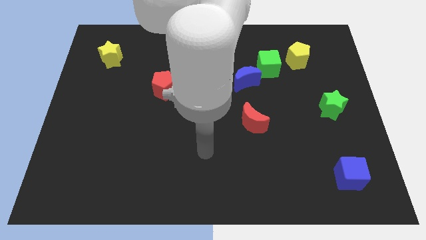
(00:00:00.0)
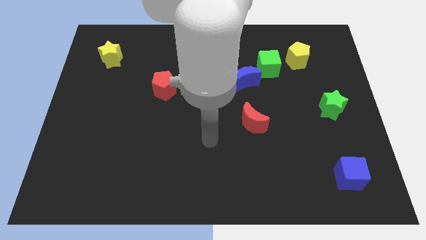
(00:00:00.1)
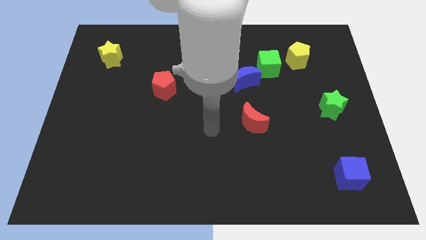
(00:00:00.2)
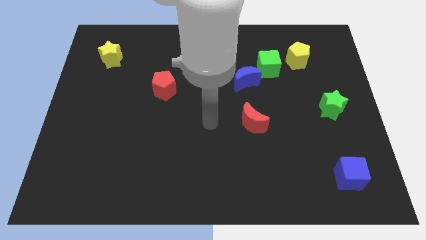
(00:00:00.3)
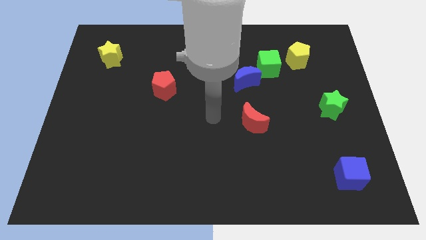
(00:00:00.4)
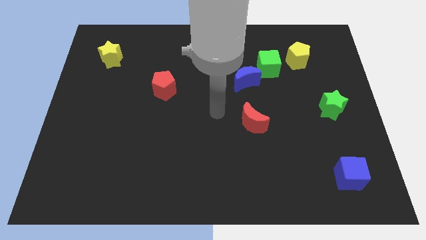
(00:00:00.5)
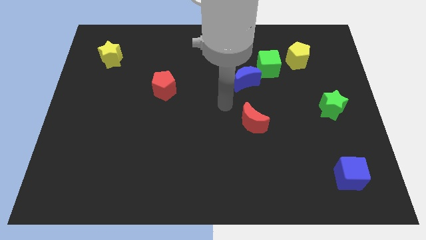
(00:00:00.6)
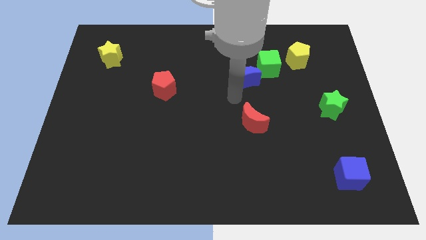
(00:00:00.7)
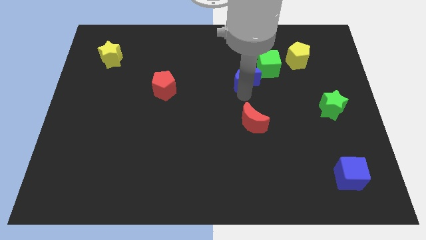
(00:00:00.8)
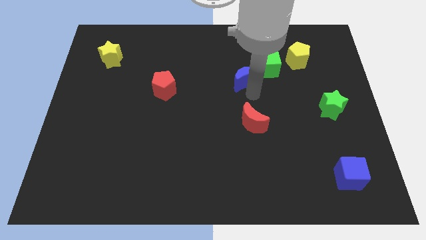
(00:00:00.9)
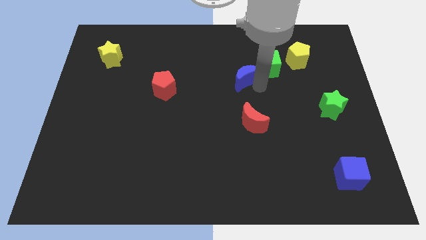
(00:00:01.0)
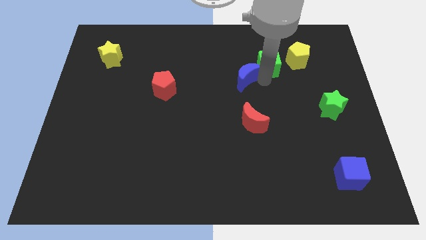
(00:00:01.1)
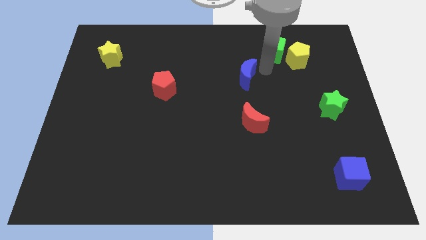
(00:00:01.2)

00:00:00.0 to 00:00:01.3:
move the blue moon away from the green cube

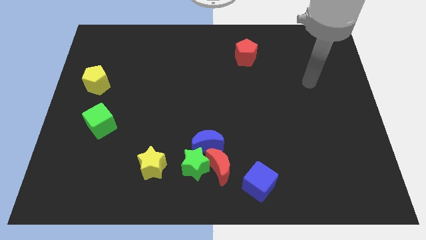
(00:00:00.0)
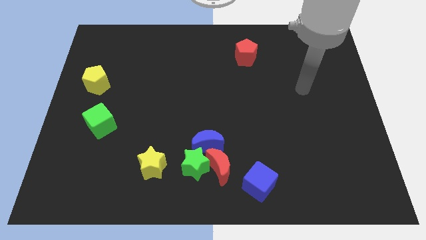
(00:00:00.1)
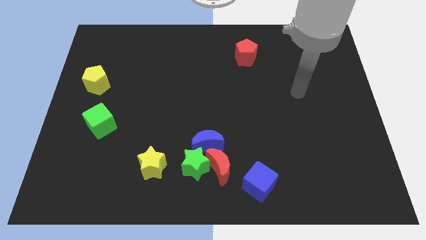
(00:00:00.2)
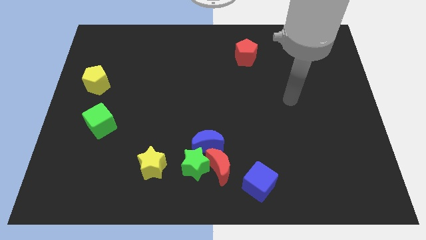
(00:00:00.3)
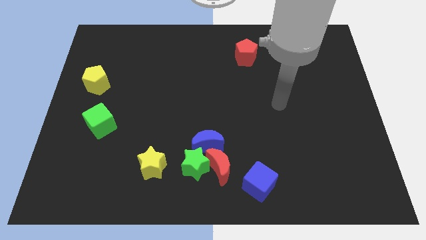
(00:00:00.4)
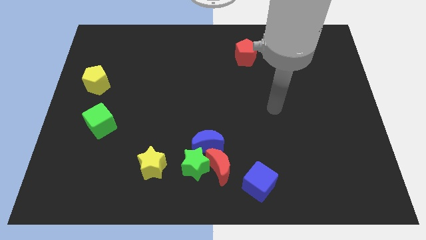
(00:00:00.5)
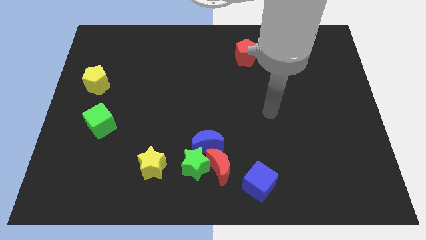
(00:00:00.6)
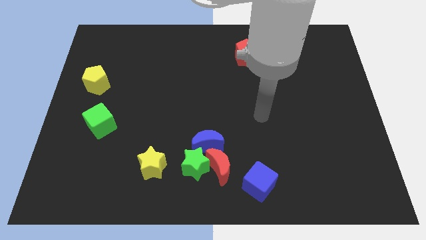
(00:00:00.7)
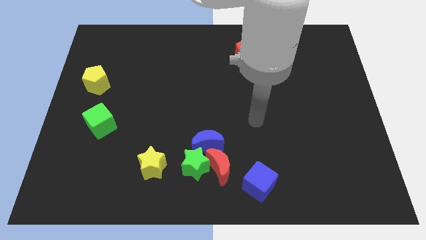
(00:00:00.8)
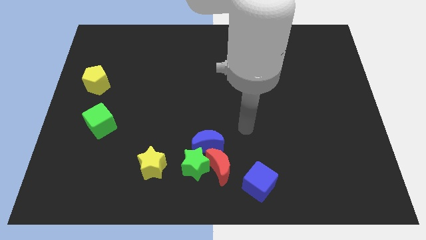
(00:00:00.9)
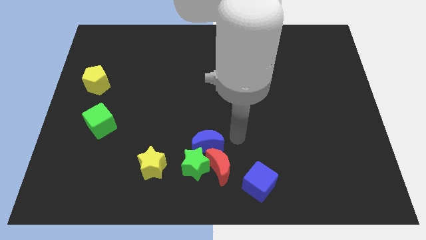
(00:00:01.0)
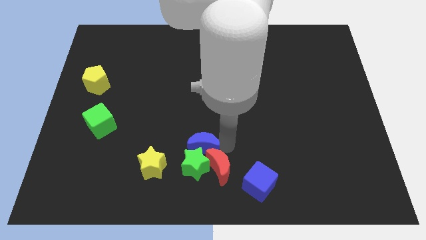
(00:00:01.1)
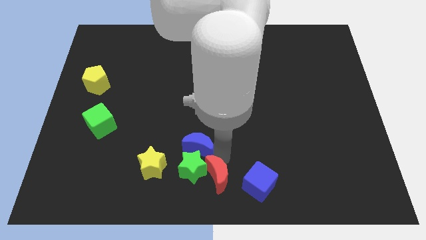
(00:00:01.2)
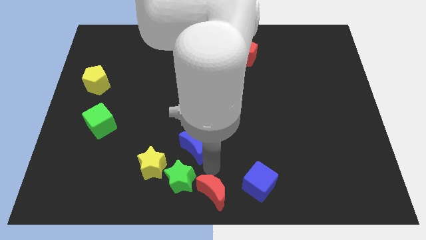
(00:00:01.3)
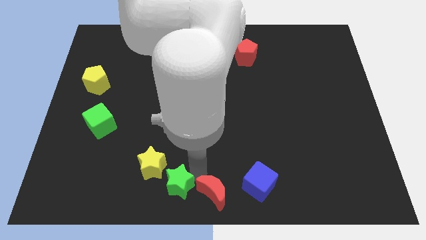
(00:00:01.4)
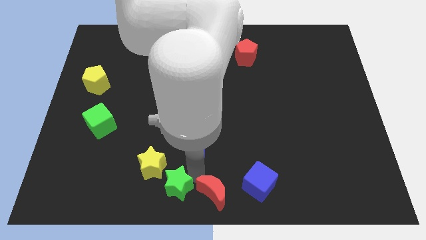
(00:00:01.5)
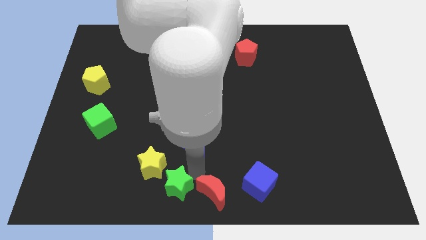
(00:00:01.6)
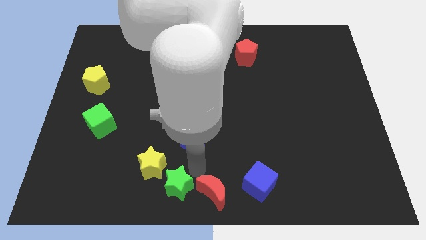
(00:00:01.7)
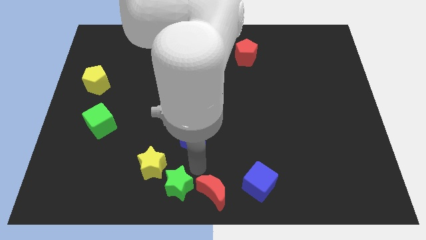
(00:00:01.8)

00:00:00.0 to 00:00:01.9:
separate the blue moon from the green star and red moon

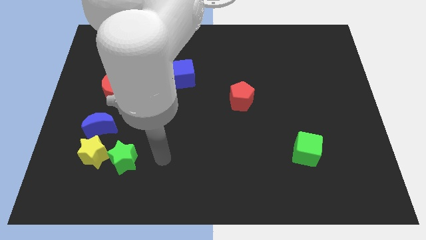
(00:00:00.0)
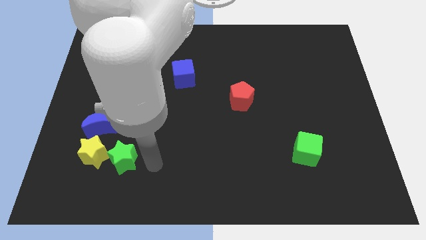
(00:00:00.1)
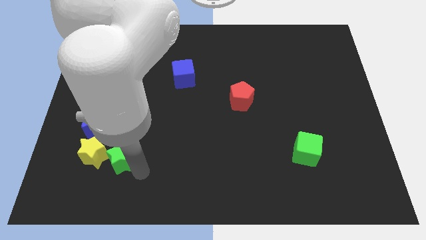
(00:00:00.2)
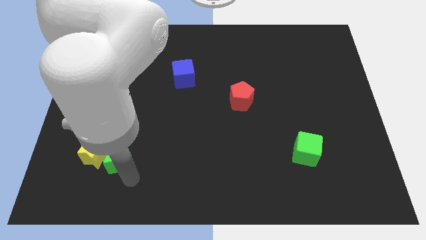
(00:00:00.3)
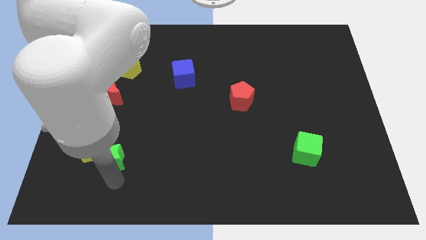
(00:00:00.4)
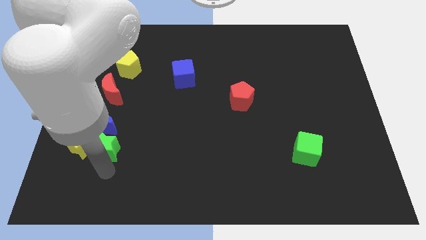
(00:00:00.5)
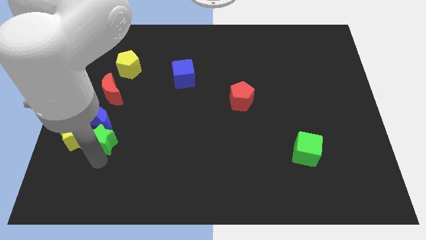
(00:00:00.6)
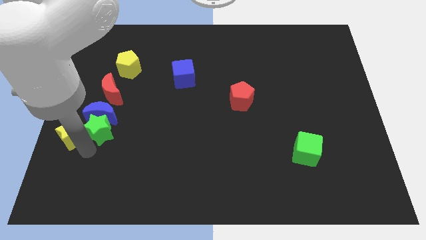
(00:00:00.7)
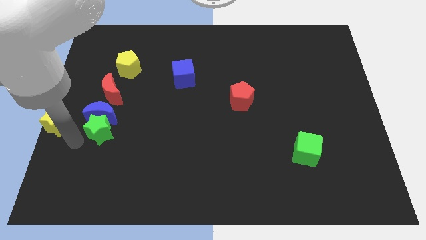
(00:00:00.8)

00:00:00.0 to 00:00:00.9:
pull the green star apart from the yellow star

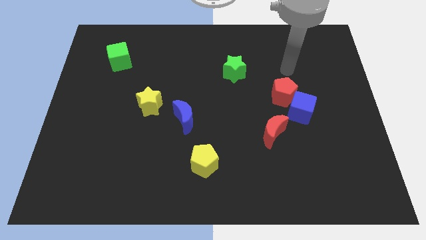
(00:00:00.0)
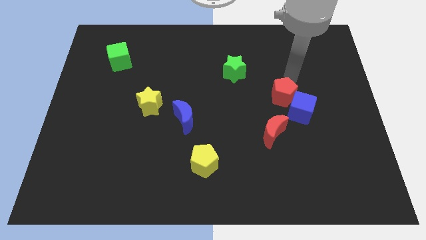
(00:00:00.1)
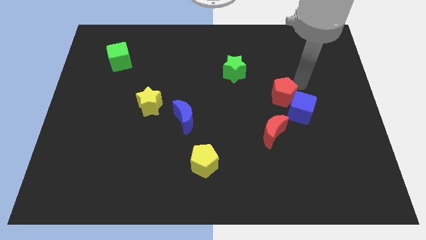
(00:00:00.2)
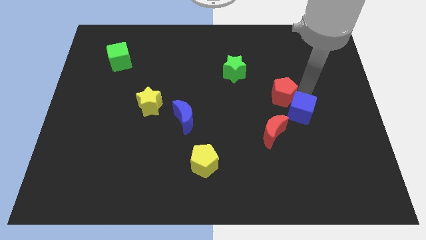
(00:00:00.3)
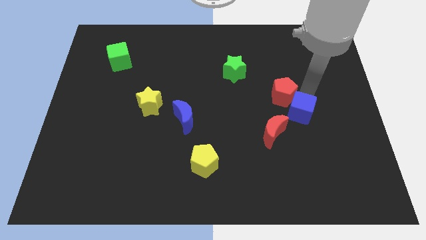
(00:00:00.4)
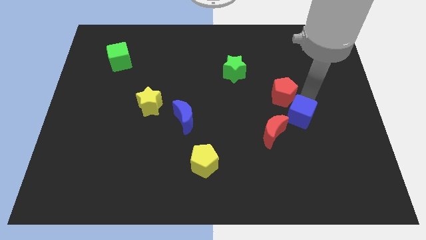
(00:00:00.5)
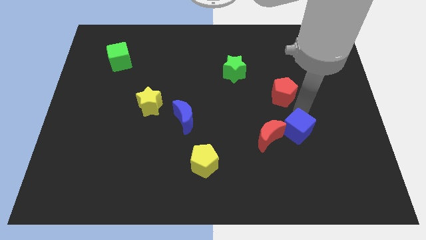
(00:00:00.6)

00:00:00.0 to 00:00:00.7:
separate the red pentagon from the blue cube

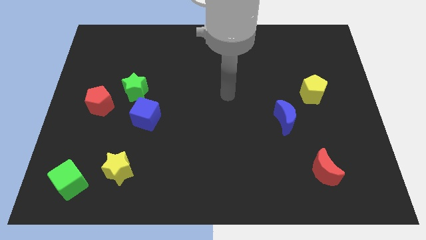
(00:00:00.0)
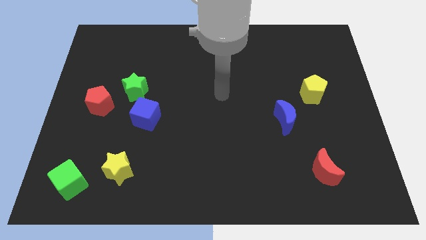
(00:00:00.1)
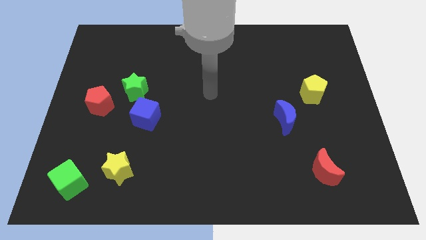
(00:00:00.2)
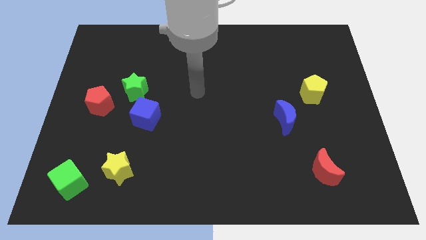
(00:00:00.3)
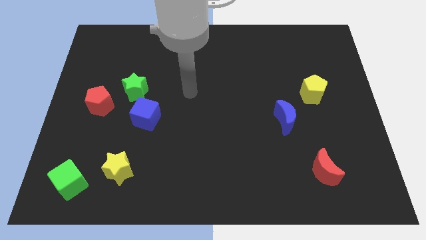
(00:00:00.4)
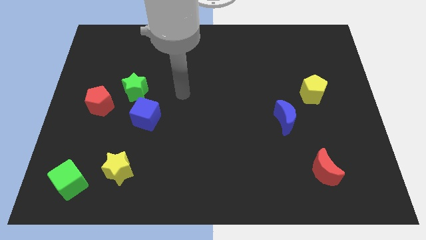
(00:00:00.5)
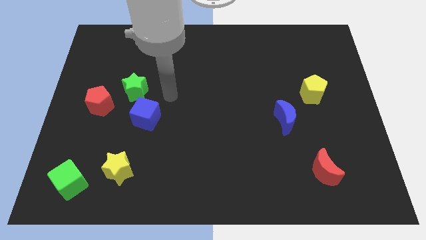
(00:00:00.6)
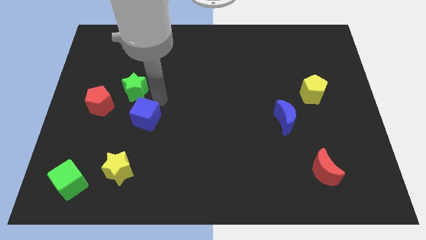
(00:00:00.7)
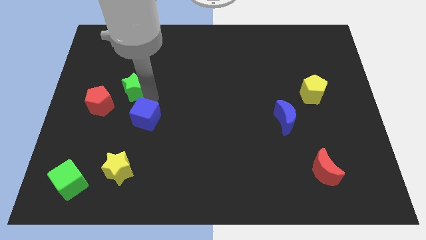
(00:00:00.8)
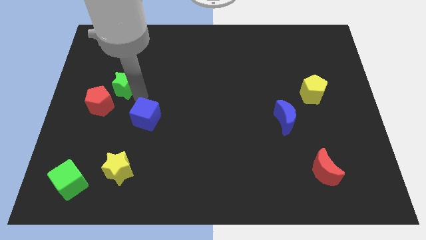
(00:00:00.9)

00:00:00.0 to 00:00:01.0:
separate the blue cube from the green star

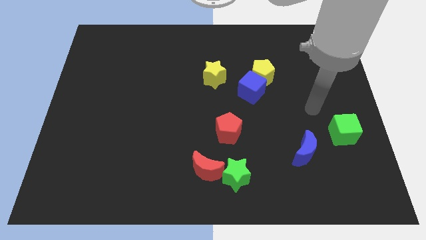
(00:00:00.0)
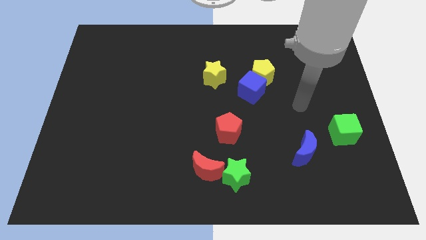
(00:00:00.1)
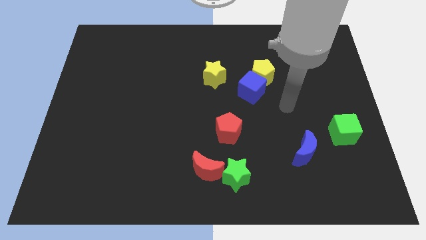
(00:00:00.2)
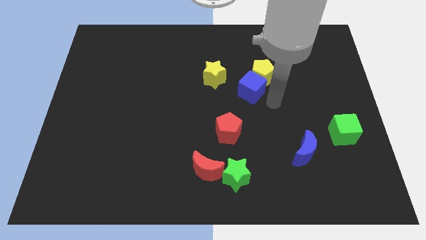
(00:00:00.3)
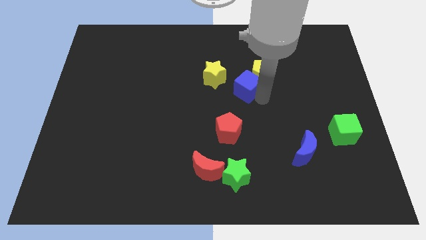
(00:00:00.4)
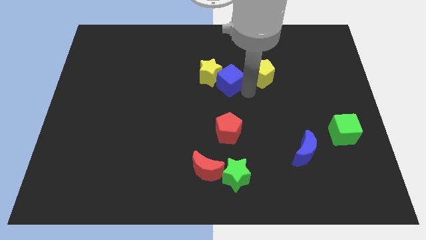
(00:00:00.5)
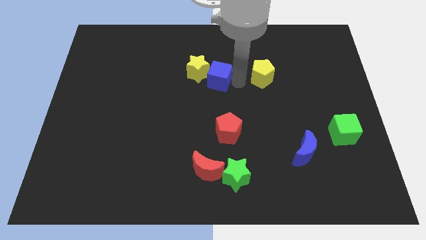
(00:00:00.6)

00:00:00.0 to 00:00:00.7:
separate the yellow pentagon from the blue cube

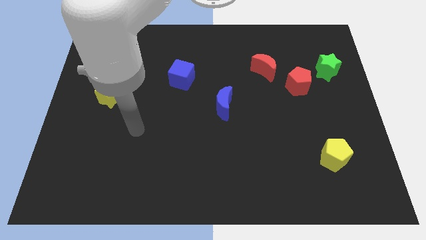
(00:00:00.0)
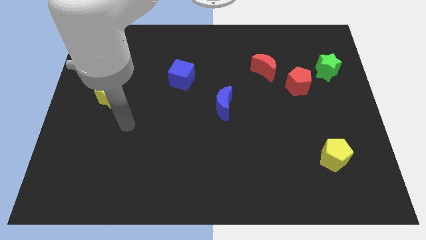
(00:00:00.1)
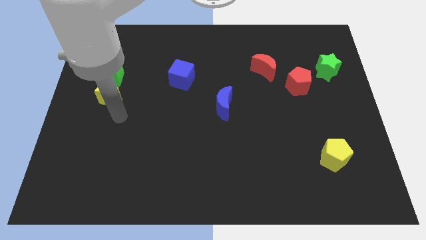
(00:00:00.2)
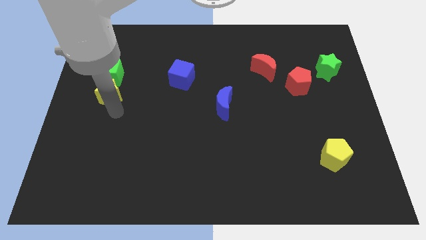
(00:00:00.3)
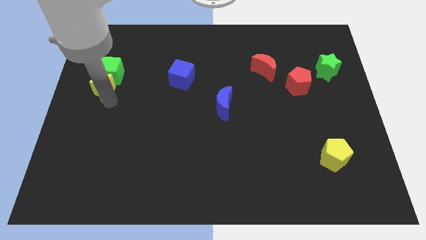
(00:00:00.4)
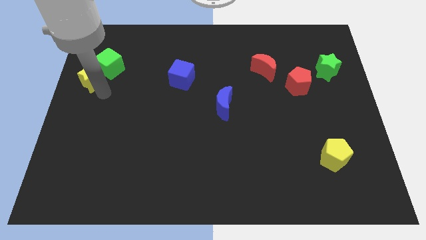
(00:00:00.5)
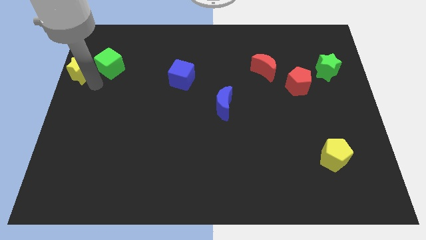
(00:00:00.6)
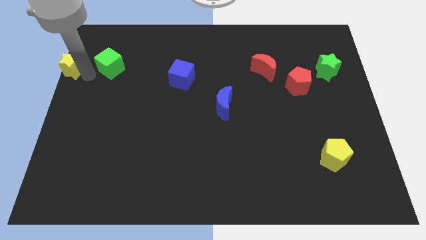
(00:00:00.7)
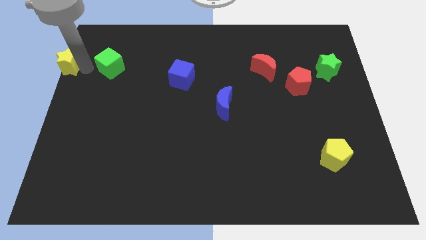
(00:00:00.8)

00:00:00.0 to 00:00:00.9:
pull the green cube apart from the yellow star

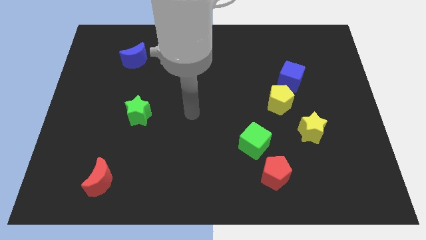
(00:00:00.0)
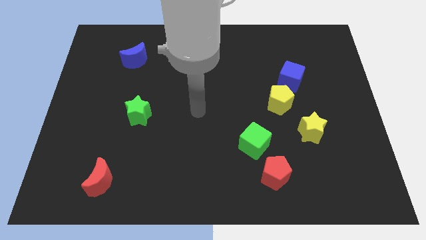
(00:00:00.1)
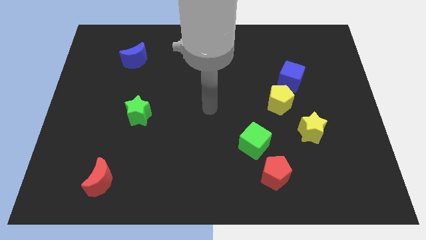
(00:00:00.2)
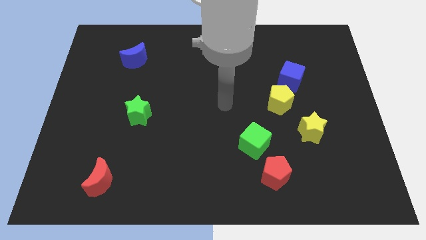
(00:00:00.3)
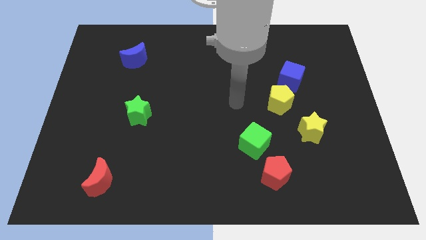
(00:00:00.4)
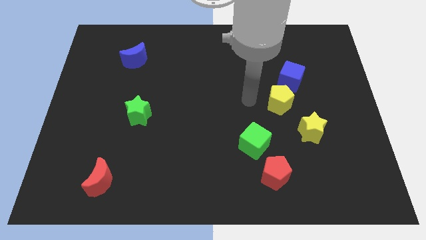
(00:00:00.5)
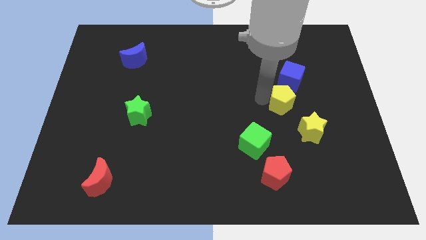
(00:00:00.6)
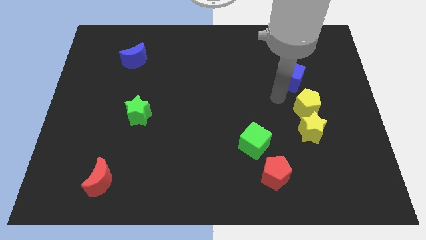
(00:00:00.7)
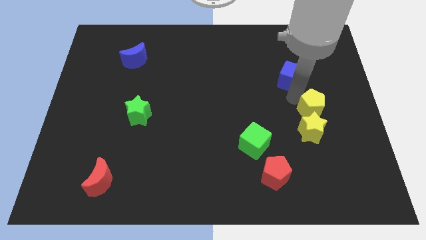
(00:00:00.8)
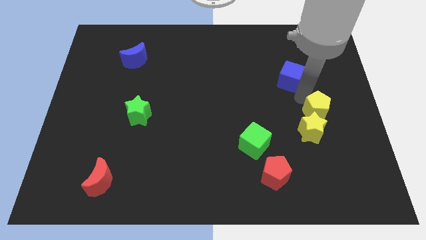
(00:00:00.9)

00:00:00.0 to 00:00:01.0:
move the blue cube away from the yellow pentagon

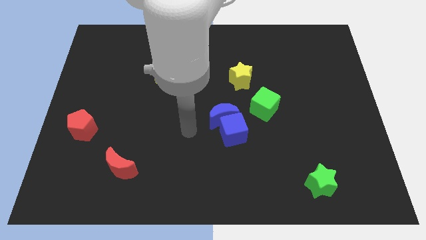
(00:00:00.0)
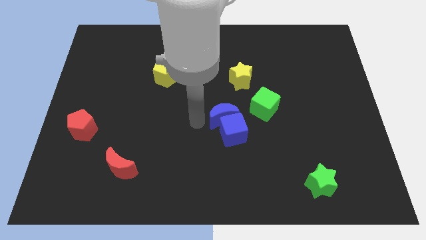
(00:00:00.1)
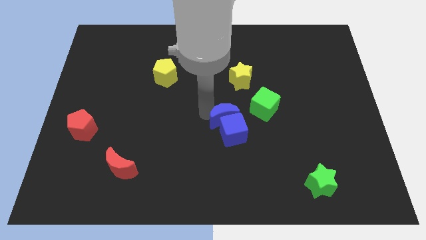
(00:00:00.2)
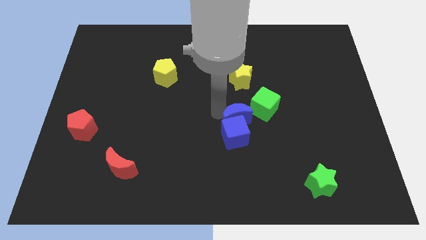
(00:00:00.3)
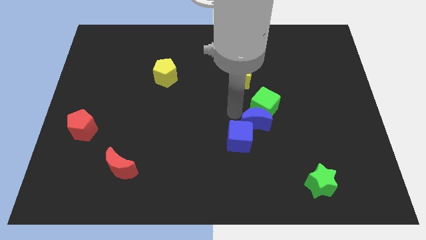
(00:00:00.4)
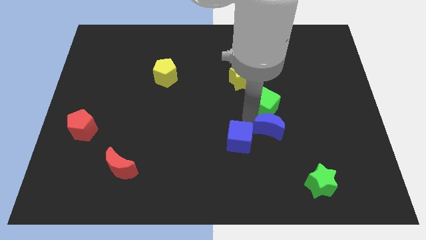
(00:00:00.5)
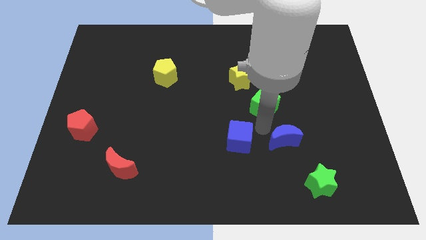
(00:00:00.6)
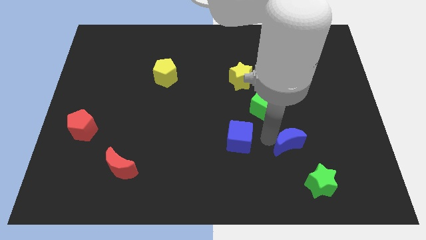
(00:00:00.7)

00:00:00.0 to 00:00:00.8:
pull the blue cube apart from the blue moon
